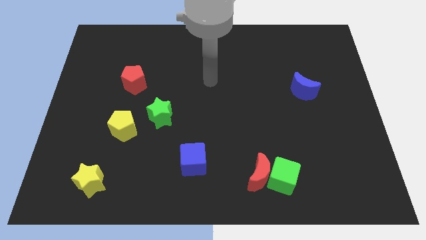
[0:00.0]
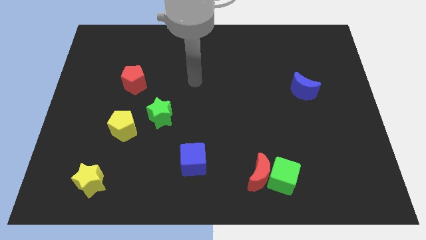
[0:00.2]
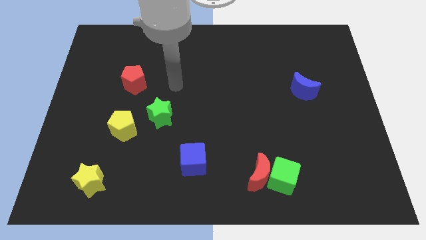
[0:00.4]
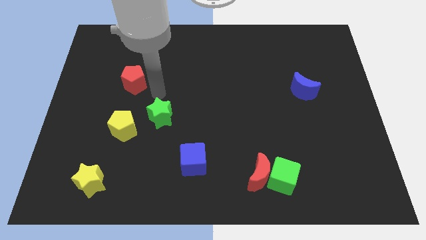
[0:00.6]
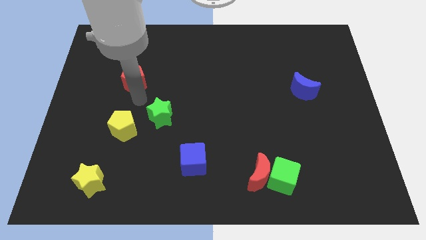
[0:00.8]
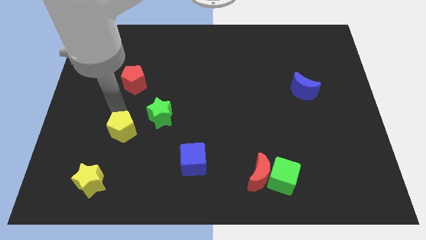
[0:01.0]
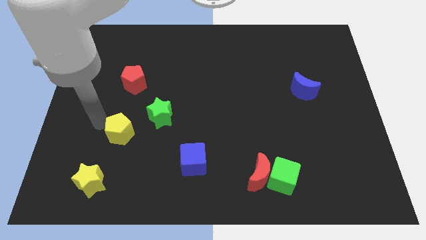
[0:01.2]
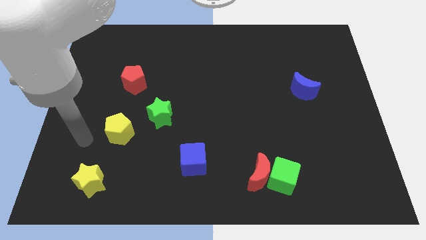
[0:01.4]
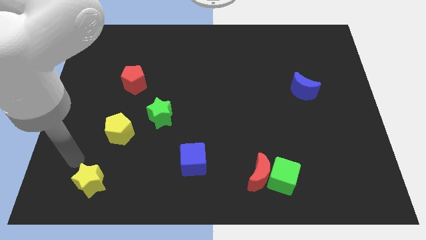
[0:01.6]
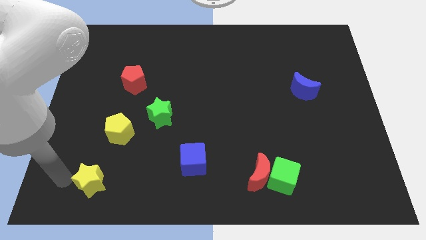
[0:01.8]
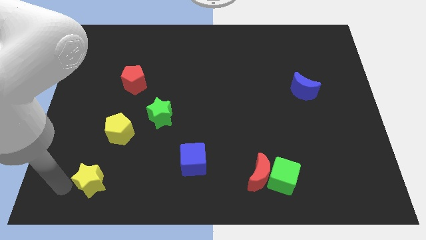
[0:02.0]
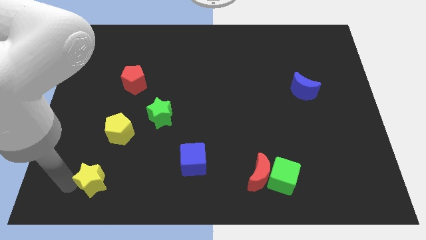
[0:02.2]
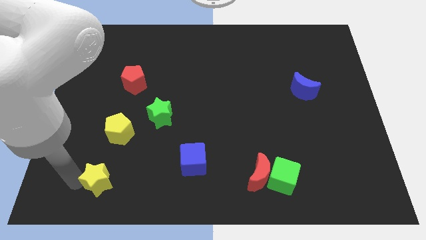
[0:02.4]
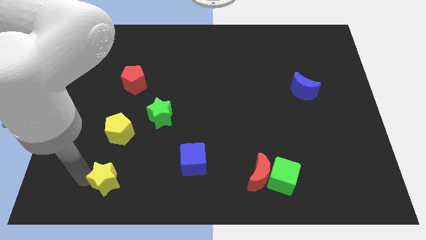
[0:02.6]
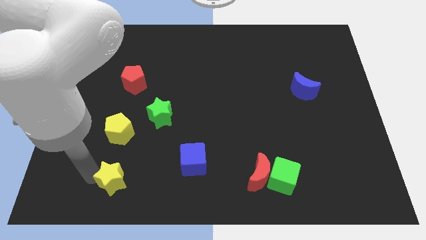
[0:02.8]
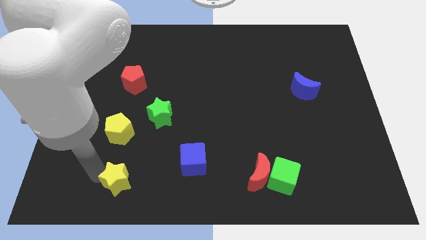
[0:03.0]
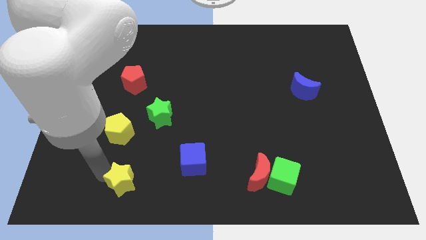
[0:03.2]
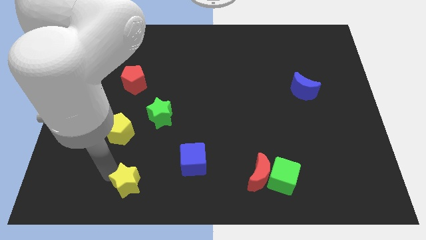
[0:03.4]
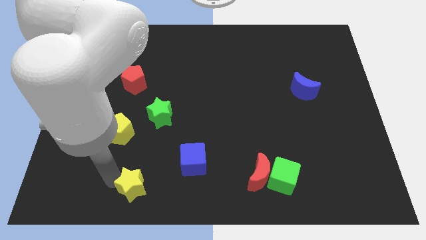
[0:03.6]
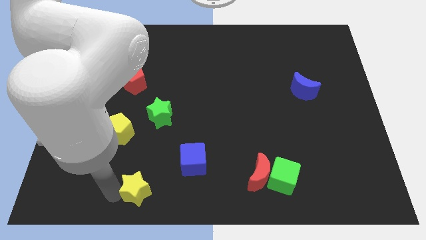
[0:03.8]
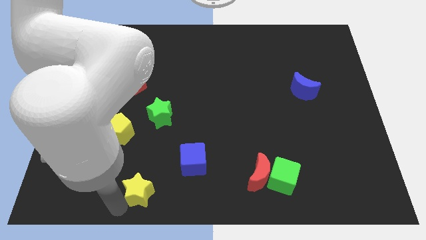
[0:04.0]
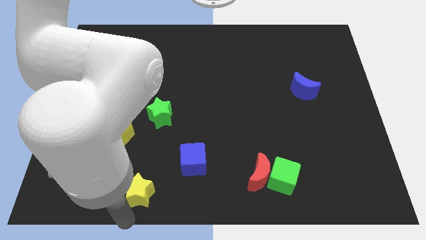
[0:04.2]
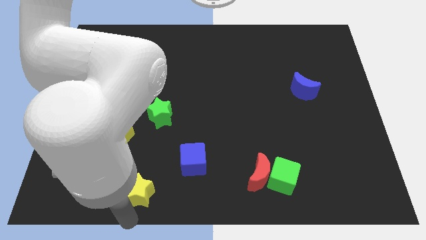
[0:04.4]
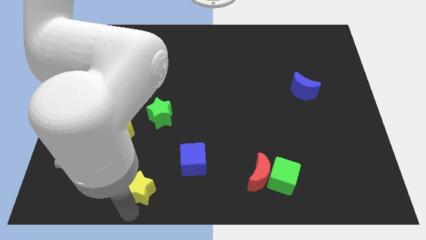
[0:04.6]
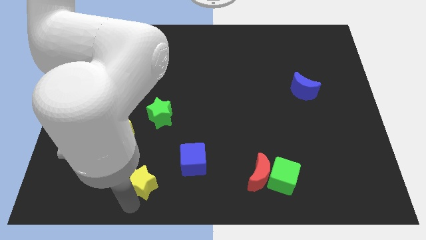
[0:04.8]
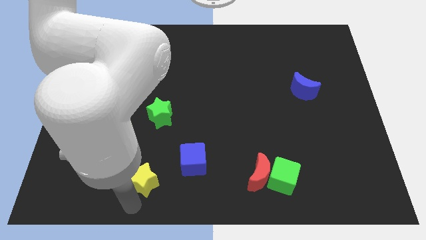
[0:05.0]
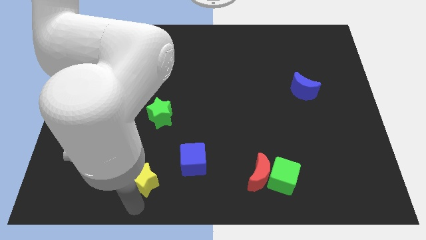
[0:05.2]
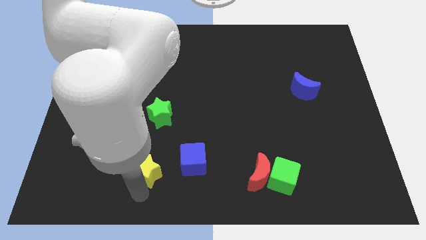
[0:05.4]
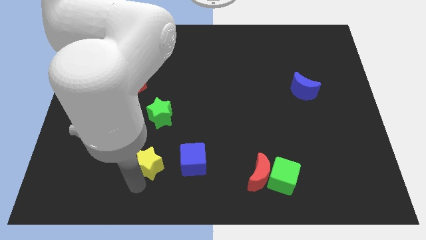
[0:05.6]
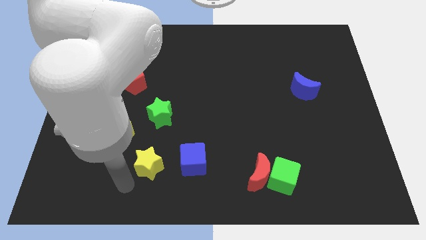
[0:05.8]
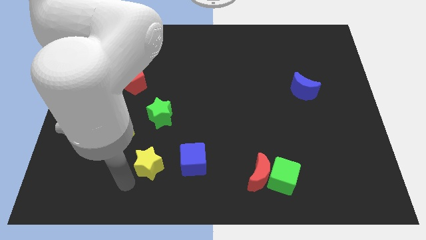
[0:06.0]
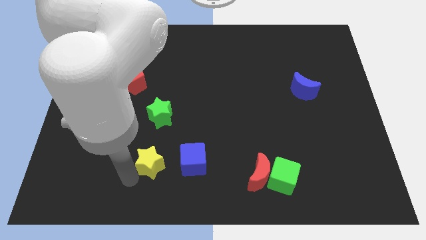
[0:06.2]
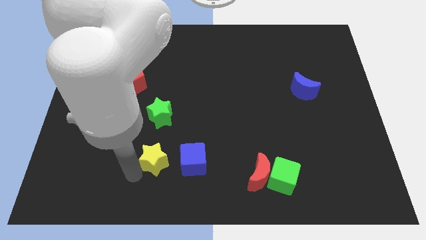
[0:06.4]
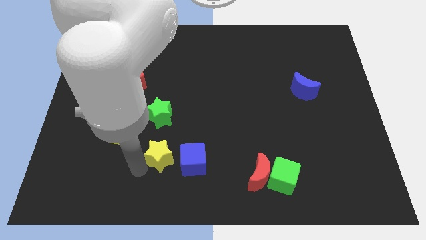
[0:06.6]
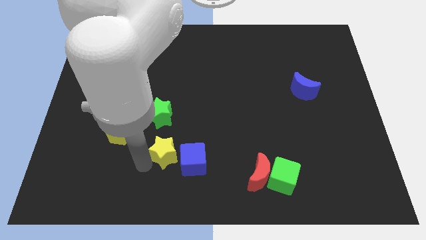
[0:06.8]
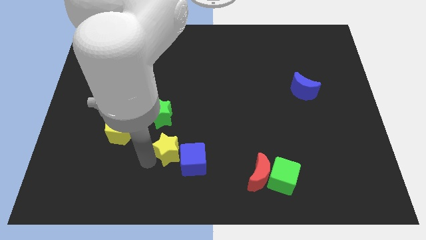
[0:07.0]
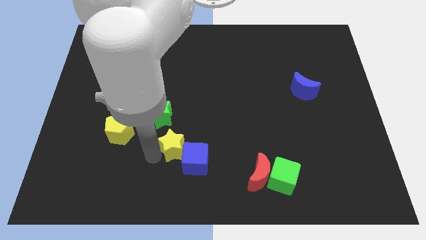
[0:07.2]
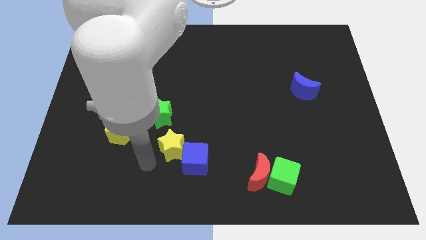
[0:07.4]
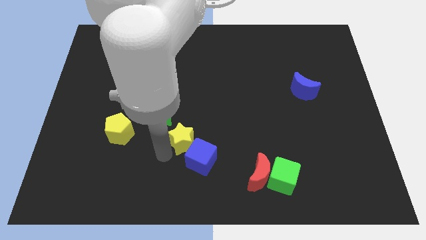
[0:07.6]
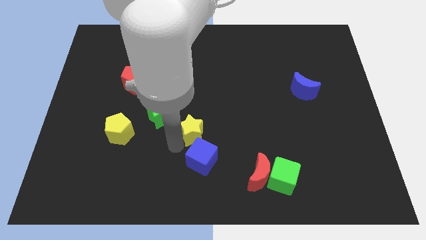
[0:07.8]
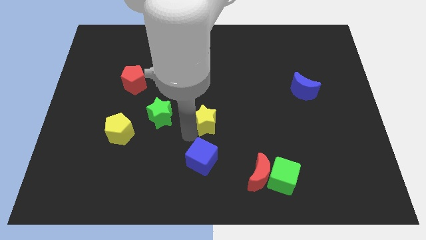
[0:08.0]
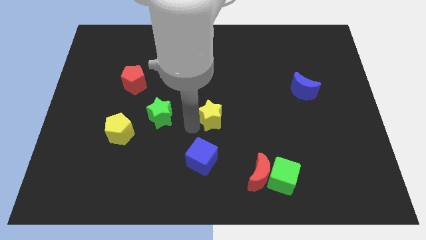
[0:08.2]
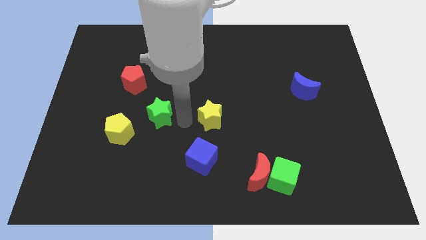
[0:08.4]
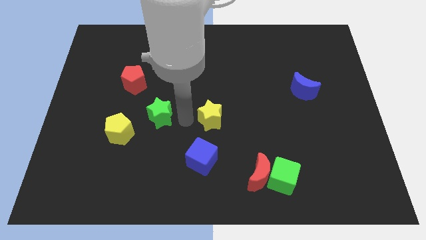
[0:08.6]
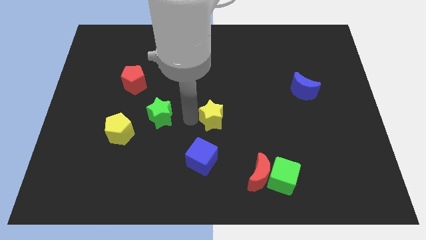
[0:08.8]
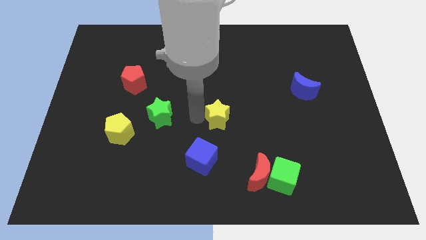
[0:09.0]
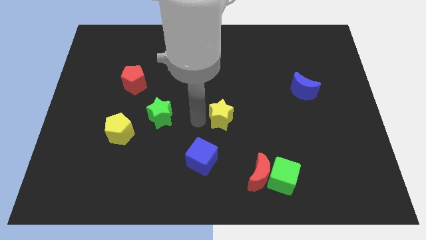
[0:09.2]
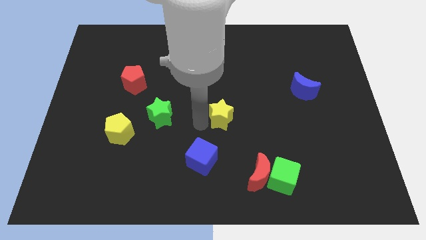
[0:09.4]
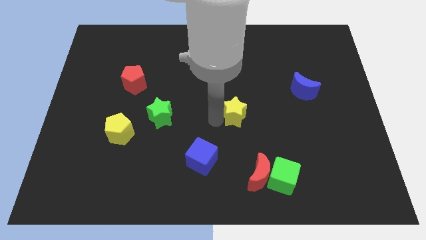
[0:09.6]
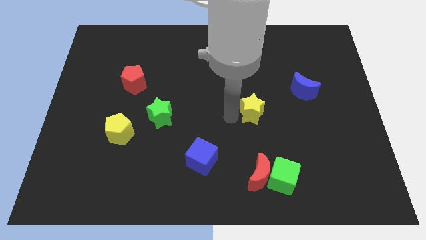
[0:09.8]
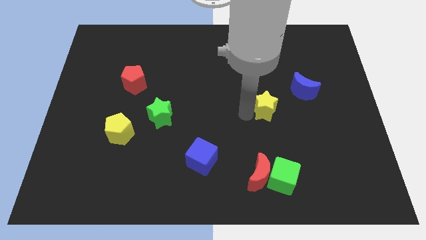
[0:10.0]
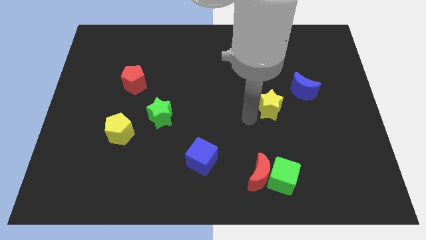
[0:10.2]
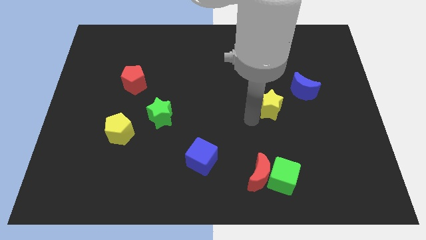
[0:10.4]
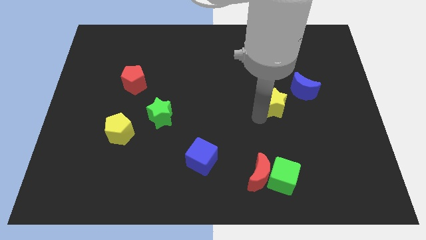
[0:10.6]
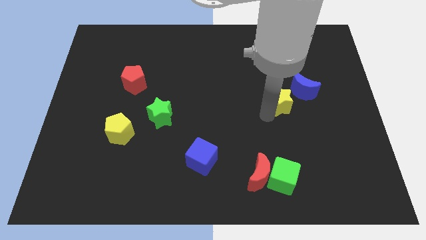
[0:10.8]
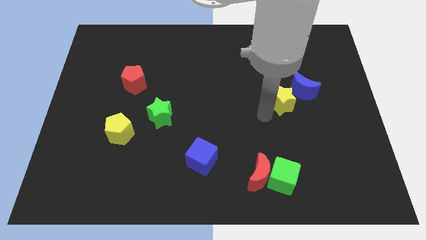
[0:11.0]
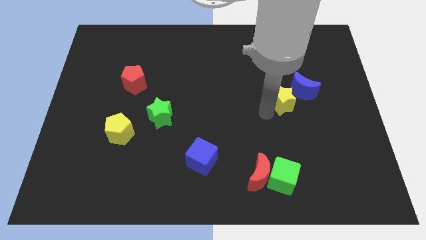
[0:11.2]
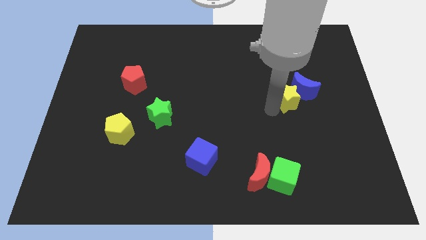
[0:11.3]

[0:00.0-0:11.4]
put the yellow star next to the blue moon

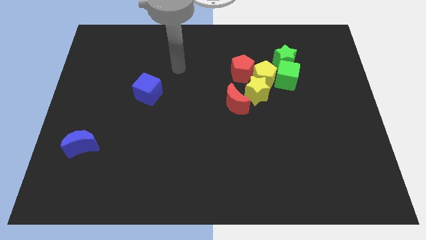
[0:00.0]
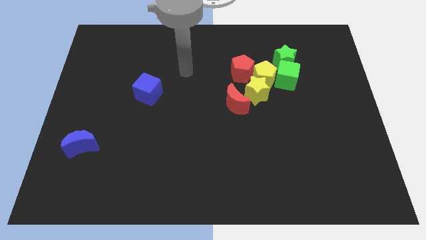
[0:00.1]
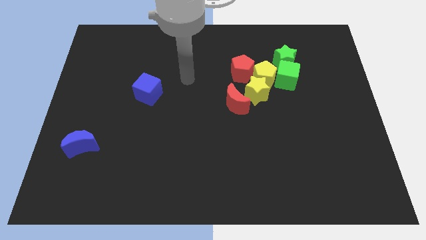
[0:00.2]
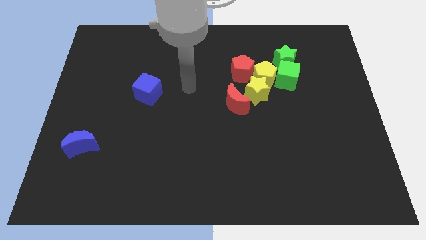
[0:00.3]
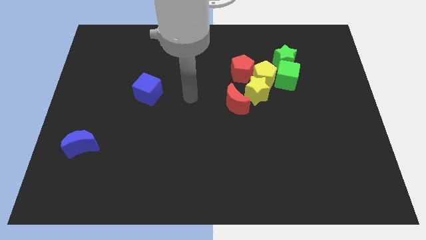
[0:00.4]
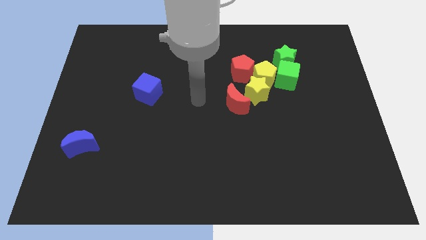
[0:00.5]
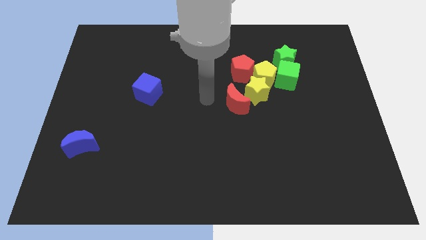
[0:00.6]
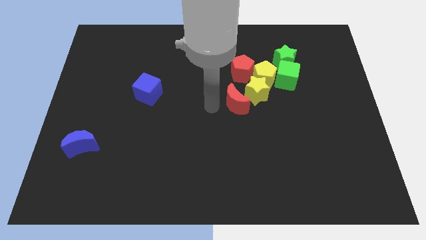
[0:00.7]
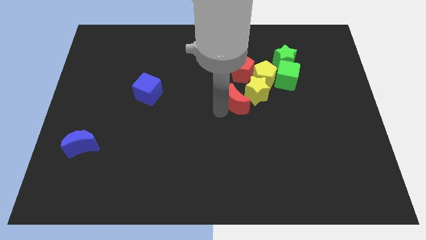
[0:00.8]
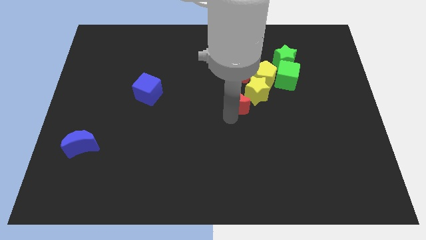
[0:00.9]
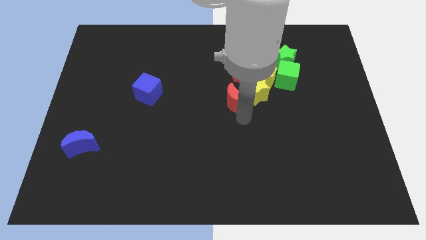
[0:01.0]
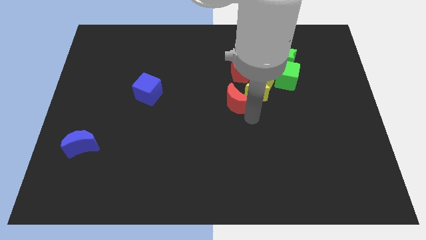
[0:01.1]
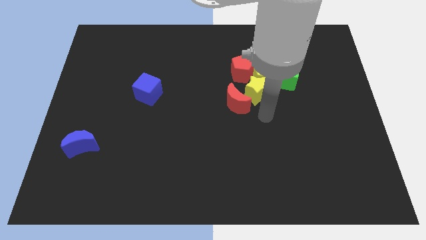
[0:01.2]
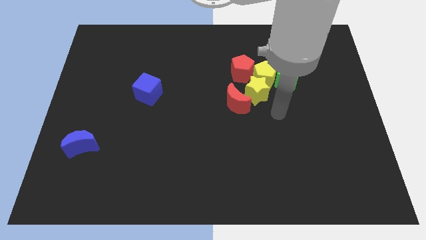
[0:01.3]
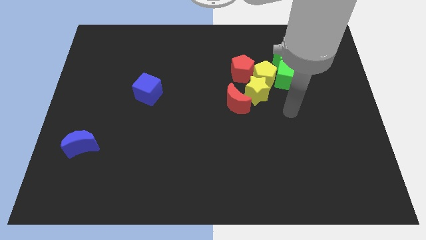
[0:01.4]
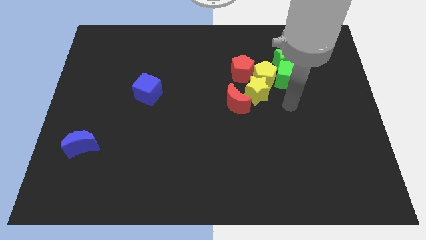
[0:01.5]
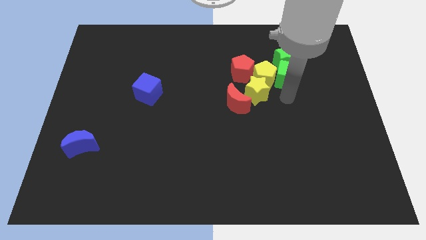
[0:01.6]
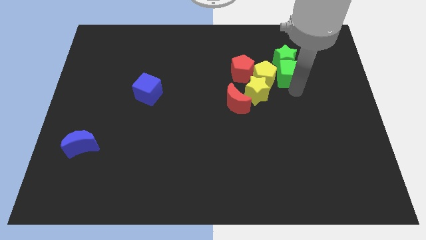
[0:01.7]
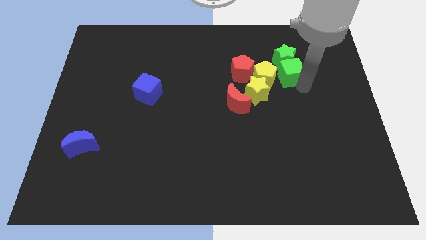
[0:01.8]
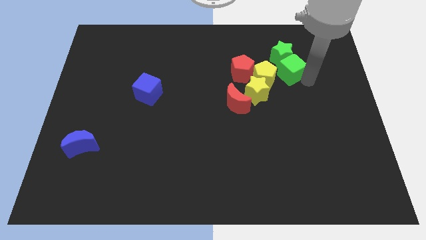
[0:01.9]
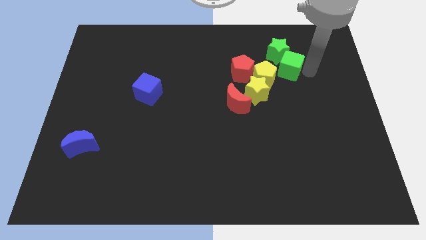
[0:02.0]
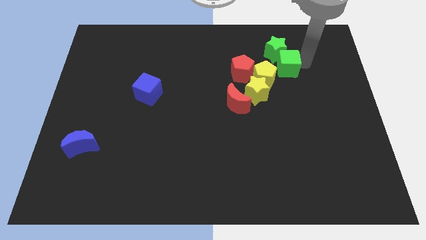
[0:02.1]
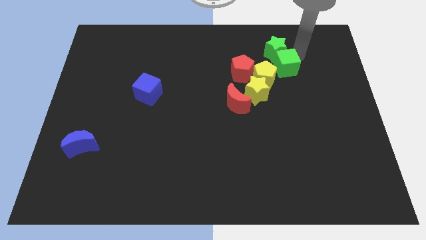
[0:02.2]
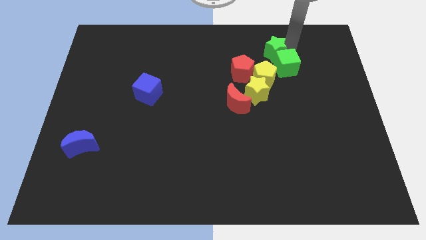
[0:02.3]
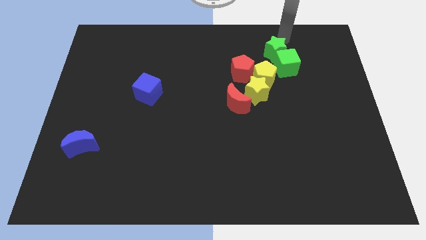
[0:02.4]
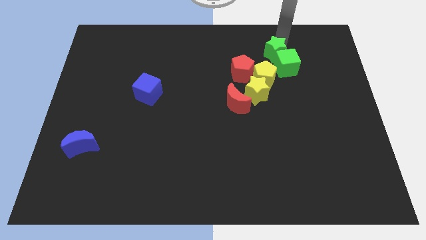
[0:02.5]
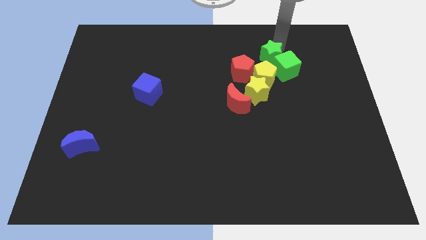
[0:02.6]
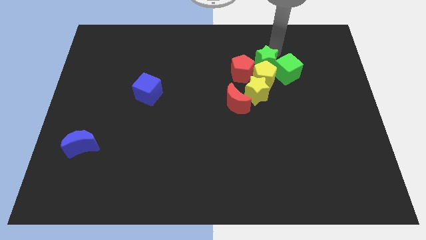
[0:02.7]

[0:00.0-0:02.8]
move the green star towards the yellow pentagon
